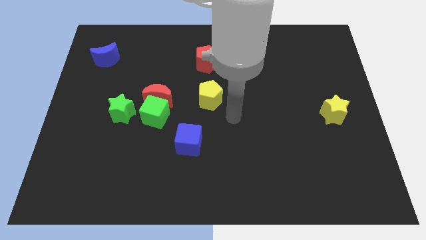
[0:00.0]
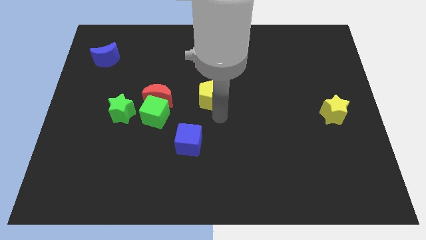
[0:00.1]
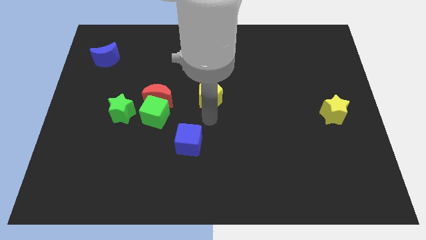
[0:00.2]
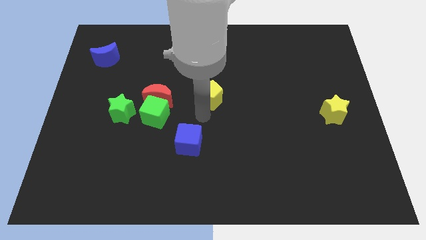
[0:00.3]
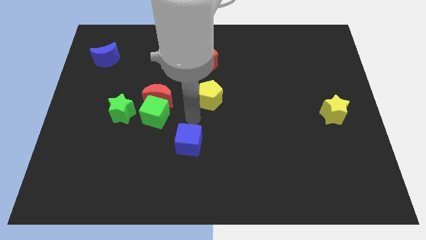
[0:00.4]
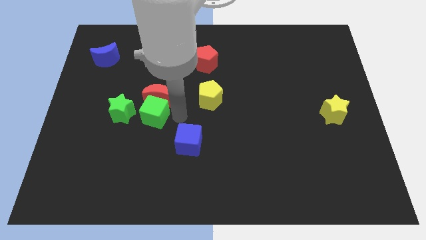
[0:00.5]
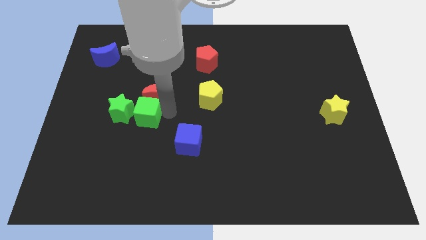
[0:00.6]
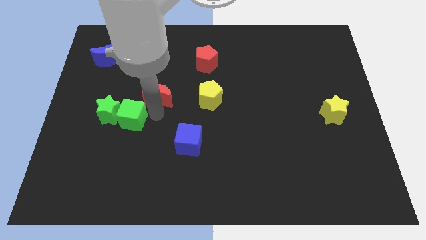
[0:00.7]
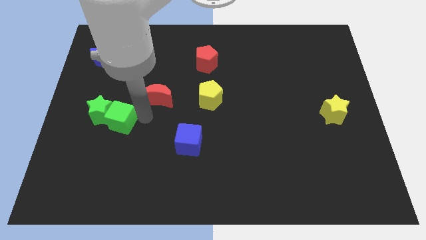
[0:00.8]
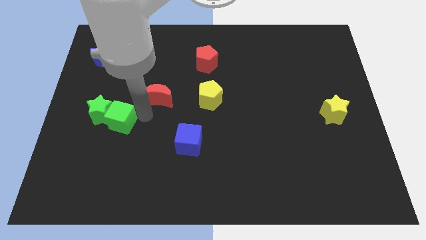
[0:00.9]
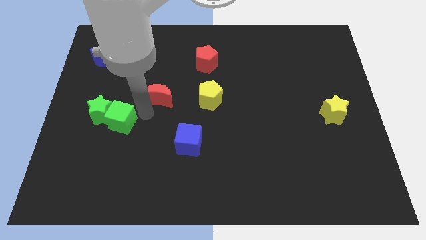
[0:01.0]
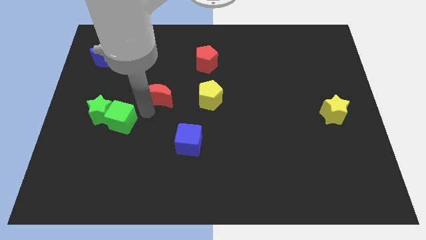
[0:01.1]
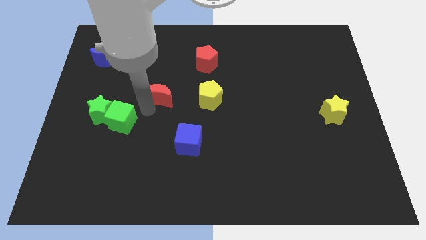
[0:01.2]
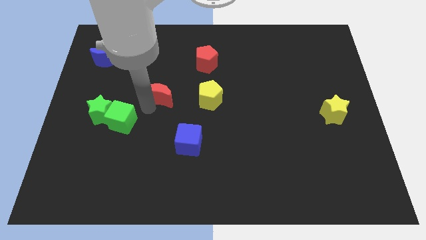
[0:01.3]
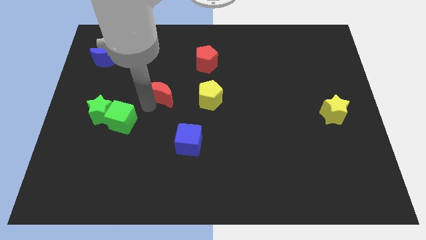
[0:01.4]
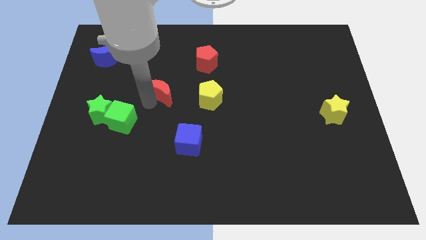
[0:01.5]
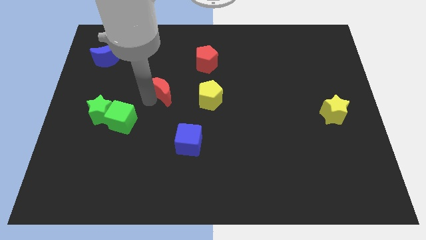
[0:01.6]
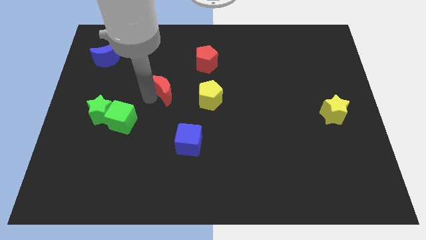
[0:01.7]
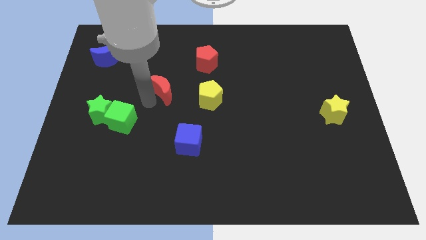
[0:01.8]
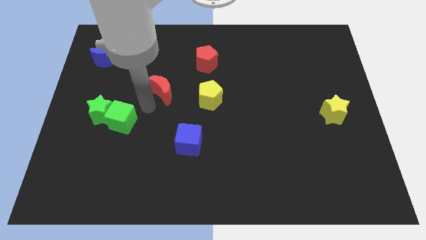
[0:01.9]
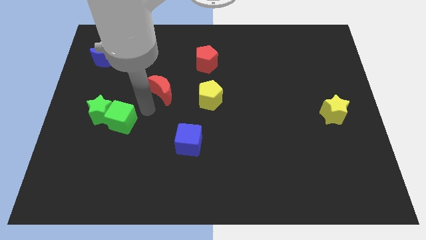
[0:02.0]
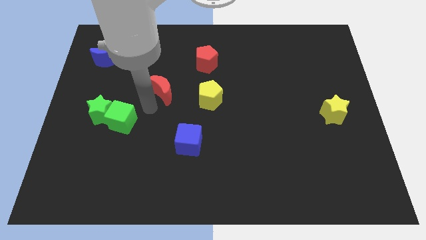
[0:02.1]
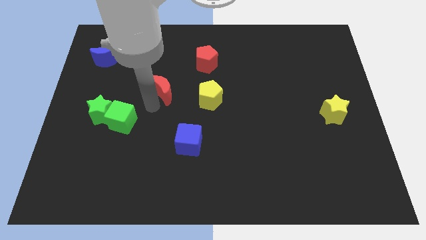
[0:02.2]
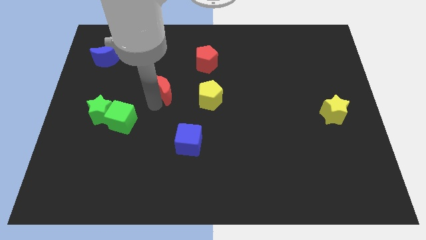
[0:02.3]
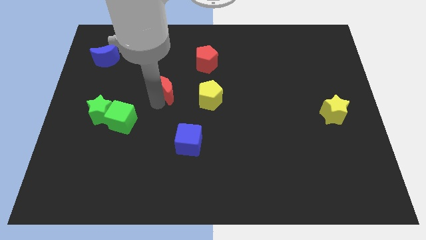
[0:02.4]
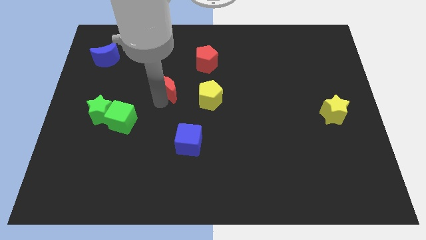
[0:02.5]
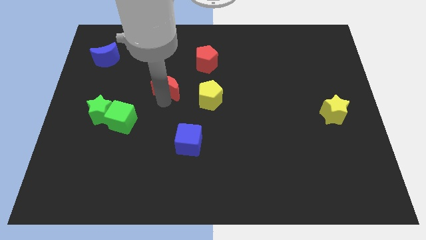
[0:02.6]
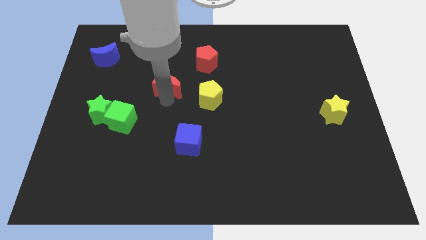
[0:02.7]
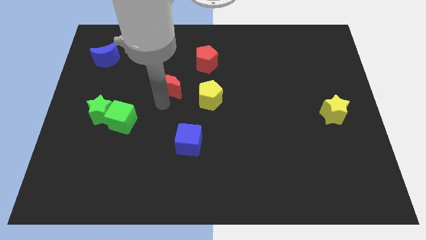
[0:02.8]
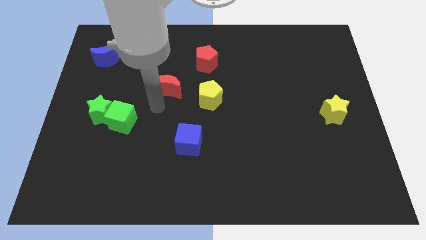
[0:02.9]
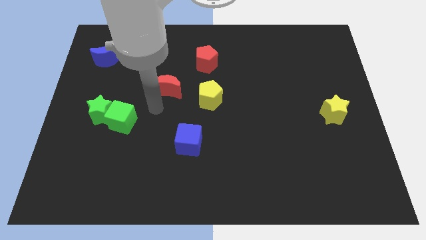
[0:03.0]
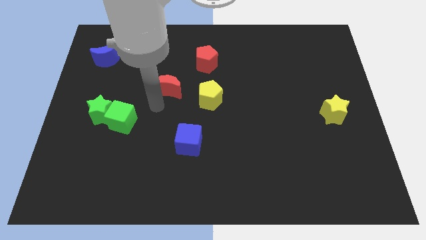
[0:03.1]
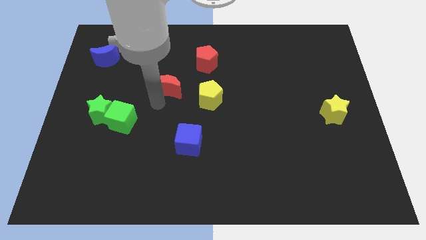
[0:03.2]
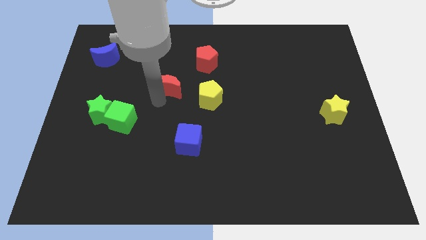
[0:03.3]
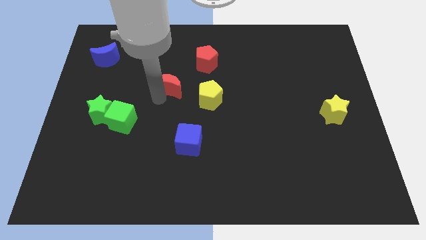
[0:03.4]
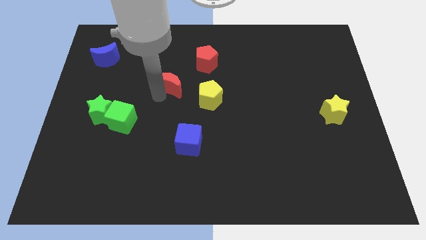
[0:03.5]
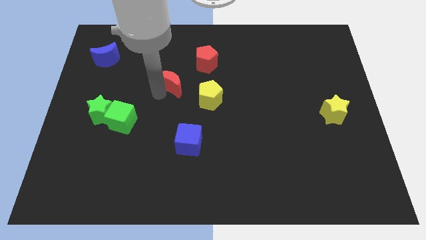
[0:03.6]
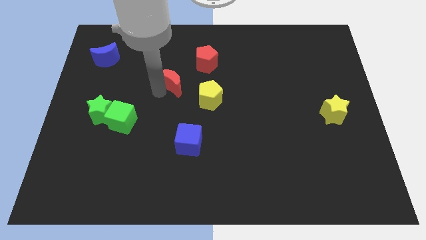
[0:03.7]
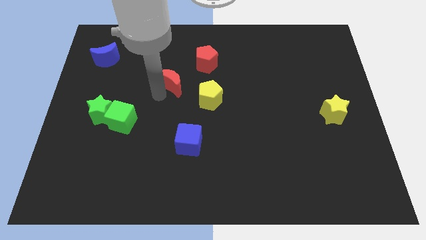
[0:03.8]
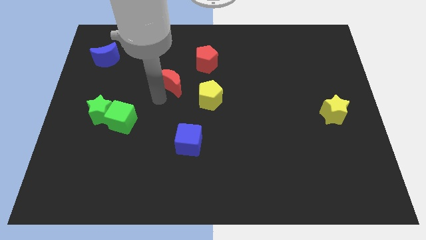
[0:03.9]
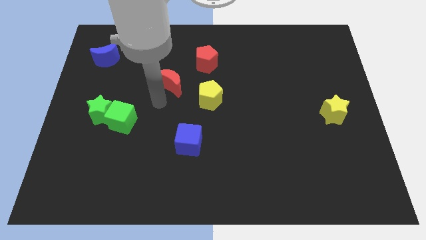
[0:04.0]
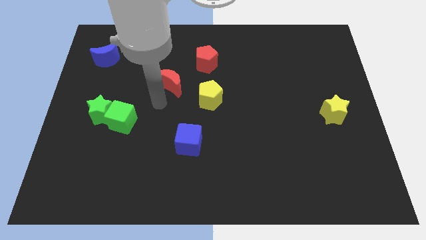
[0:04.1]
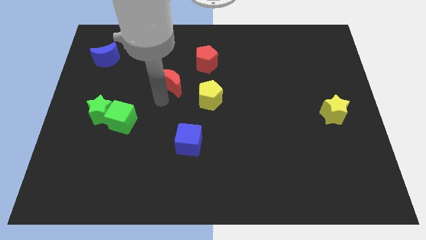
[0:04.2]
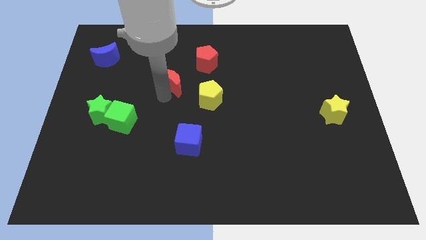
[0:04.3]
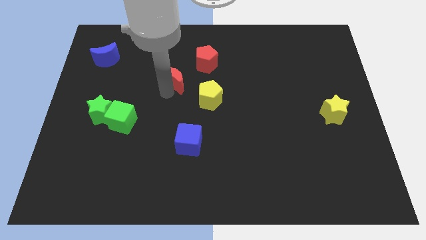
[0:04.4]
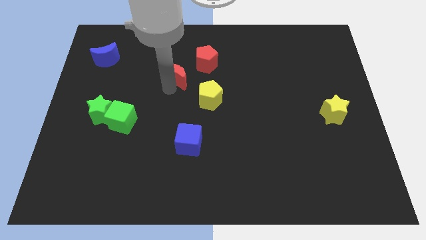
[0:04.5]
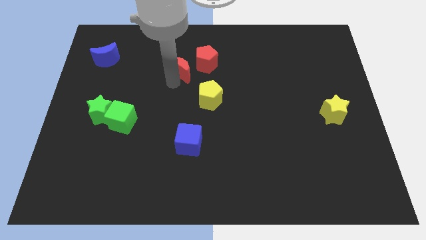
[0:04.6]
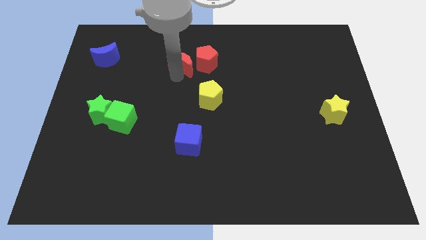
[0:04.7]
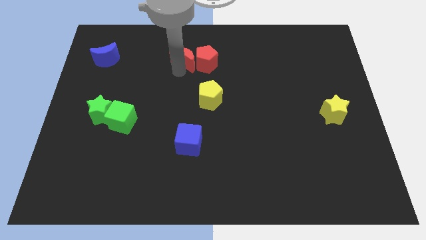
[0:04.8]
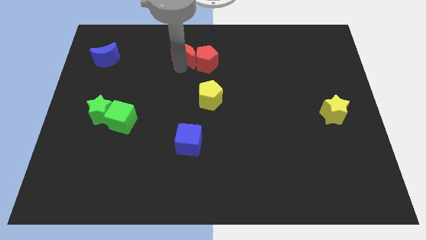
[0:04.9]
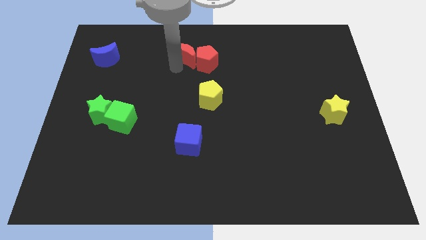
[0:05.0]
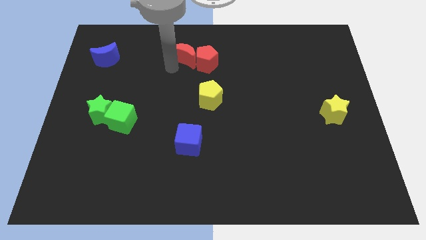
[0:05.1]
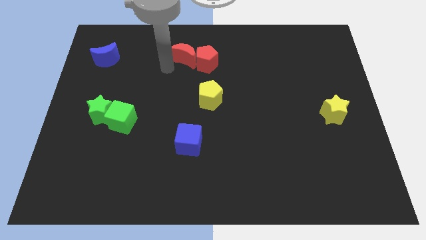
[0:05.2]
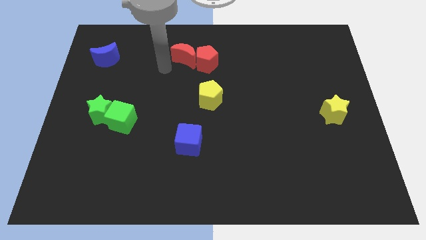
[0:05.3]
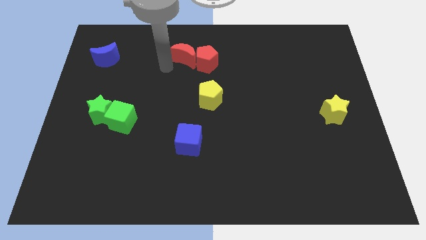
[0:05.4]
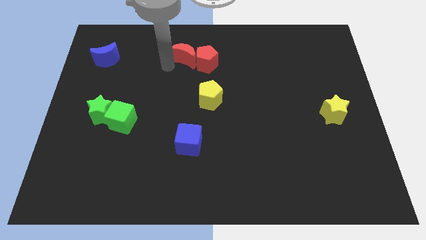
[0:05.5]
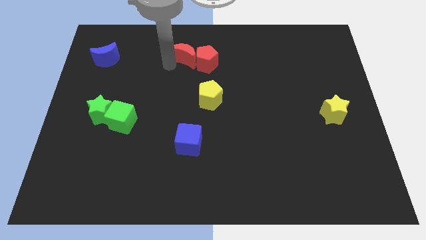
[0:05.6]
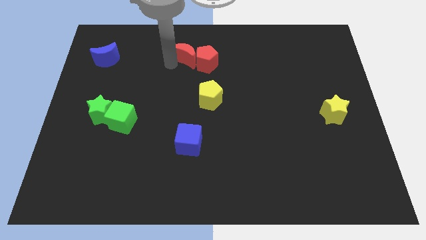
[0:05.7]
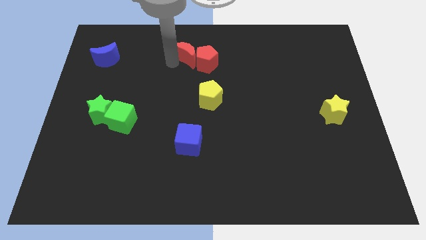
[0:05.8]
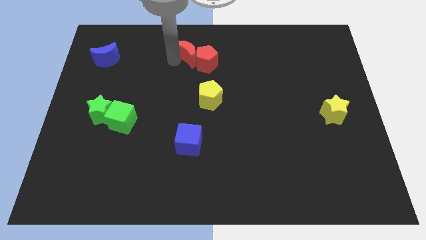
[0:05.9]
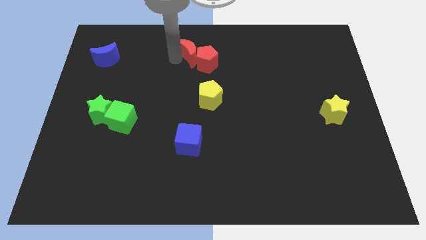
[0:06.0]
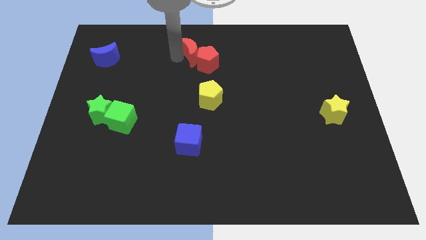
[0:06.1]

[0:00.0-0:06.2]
move the red moon to the top side
